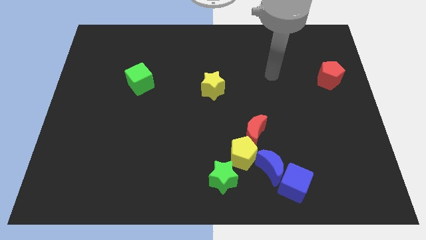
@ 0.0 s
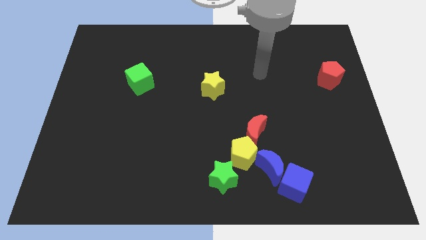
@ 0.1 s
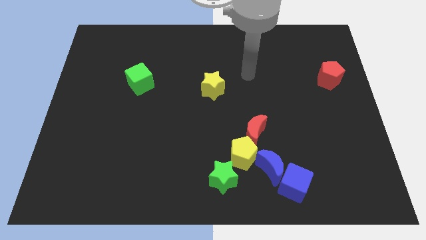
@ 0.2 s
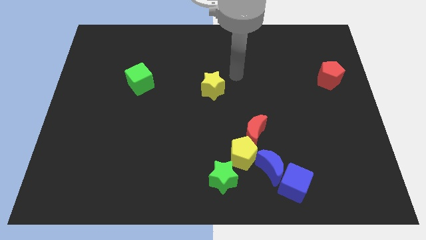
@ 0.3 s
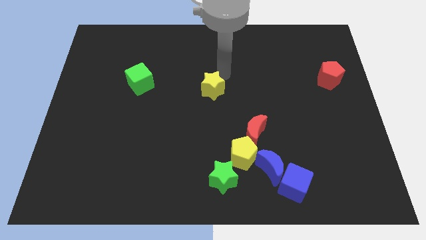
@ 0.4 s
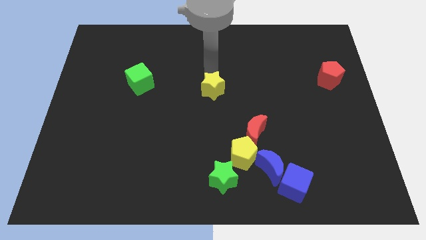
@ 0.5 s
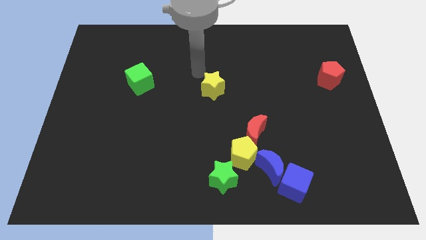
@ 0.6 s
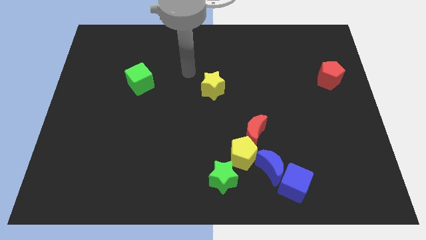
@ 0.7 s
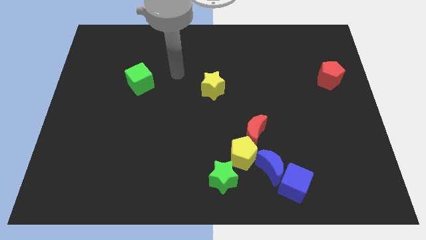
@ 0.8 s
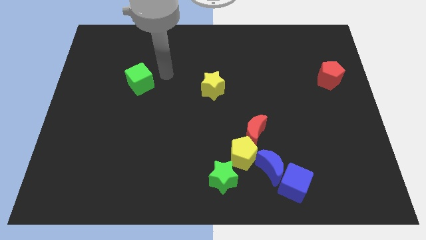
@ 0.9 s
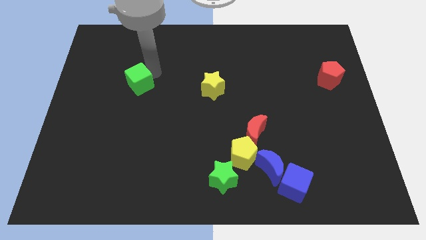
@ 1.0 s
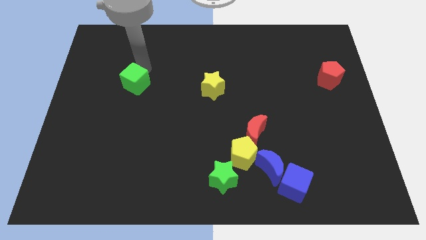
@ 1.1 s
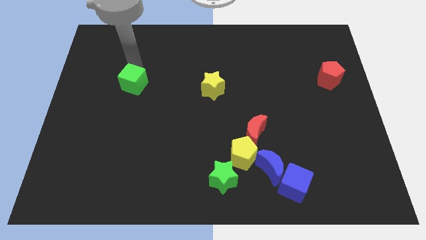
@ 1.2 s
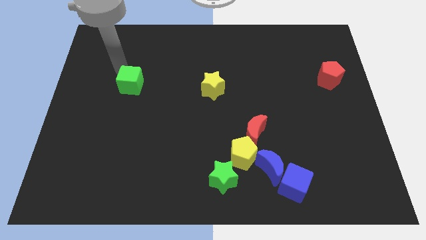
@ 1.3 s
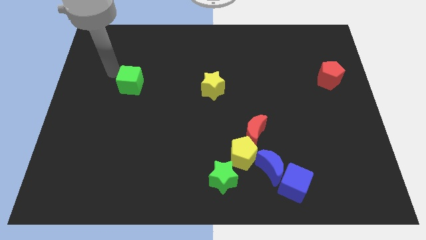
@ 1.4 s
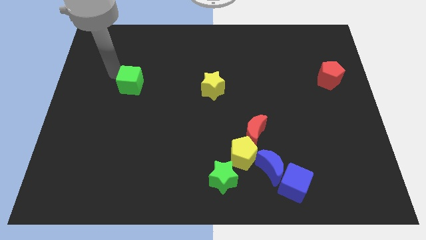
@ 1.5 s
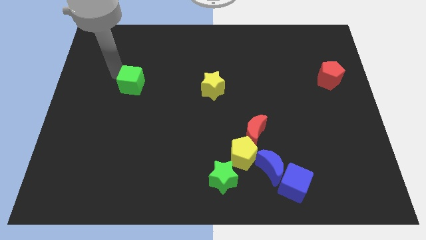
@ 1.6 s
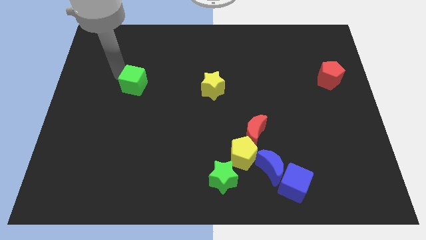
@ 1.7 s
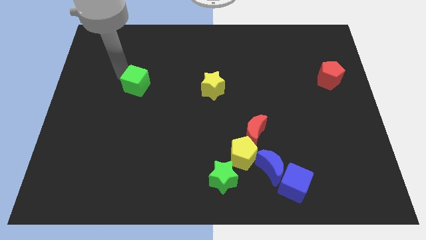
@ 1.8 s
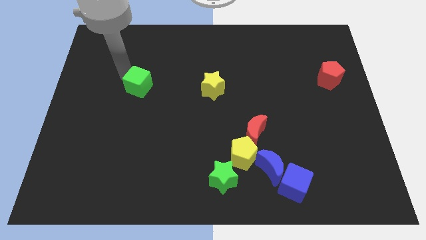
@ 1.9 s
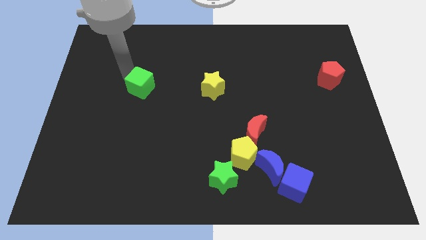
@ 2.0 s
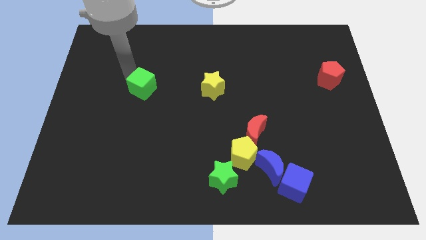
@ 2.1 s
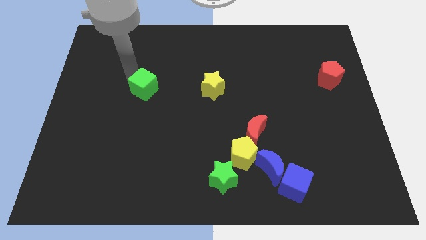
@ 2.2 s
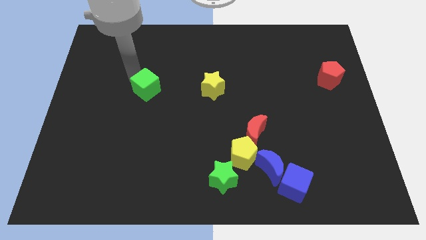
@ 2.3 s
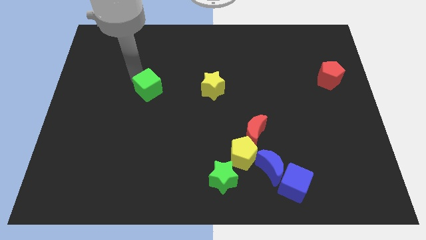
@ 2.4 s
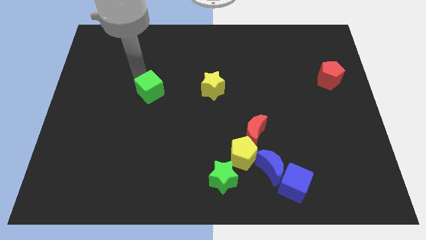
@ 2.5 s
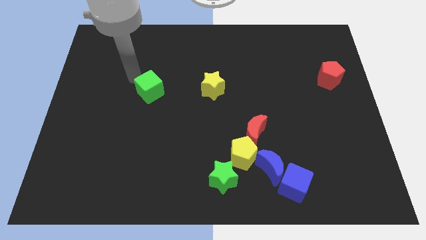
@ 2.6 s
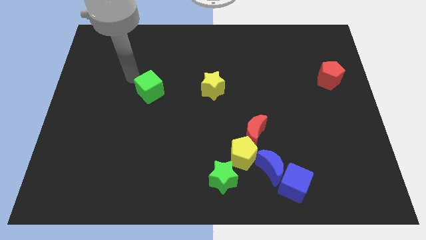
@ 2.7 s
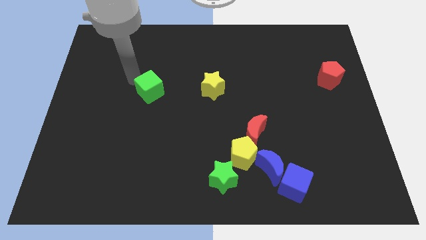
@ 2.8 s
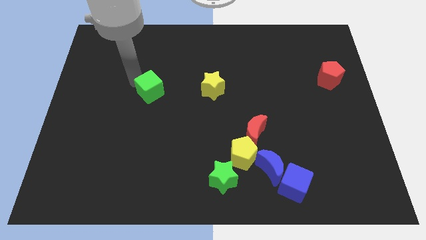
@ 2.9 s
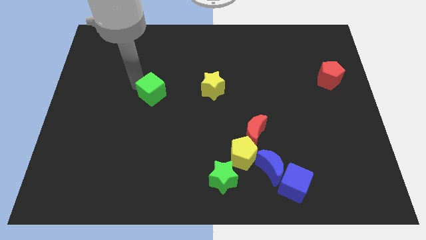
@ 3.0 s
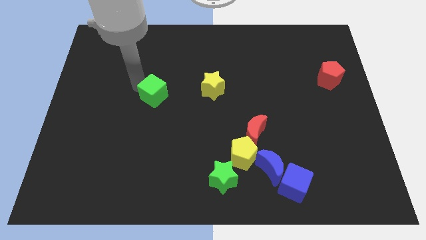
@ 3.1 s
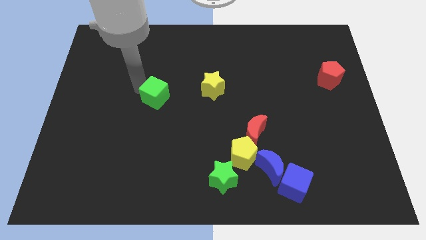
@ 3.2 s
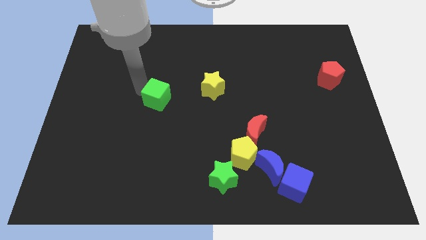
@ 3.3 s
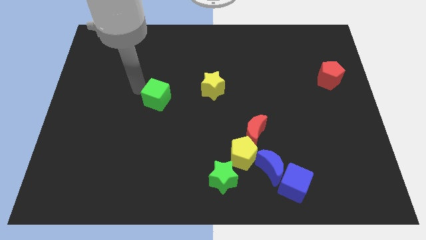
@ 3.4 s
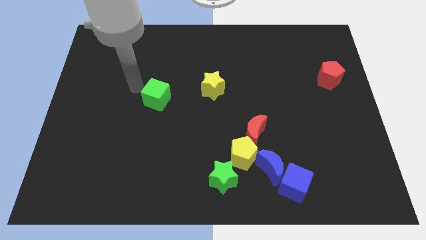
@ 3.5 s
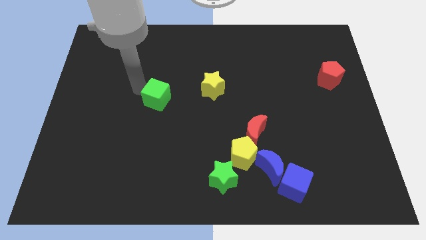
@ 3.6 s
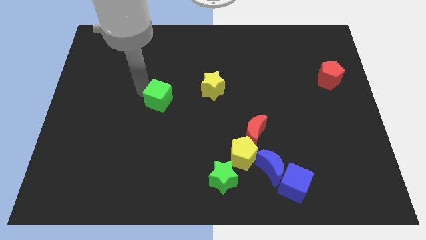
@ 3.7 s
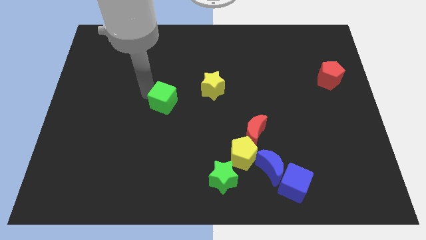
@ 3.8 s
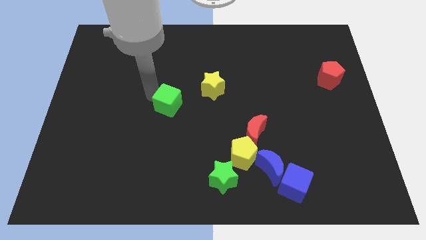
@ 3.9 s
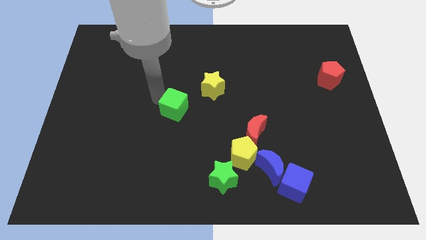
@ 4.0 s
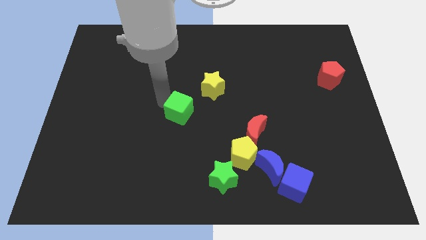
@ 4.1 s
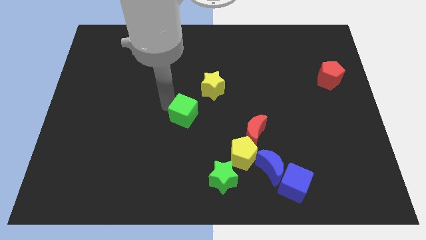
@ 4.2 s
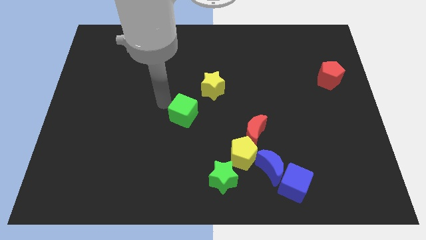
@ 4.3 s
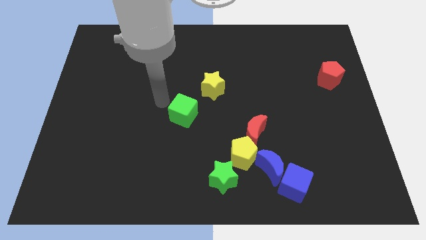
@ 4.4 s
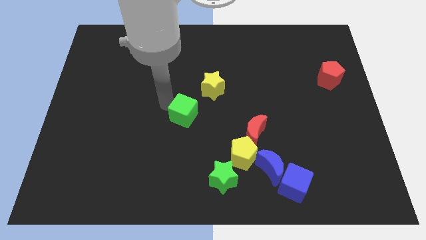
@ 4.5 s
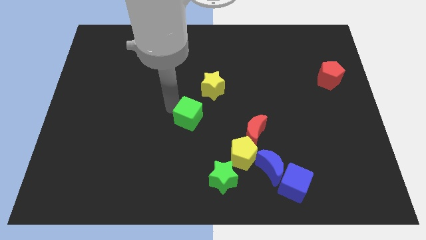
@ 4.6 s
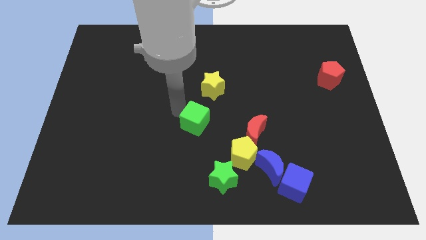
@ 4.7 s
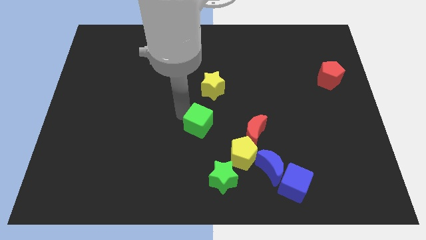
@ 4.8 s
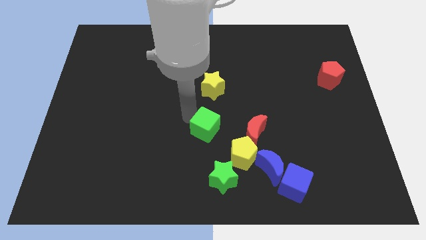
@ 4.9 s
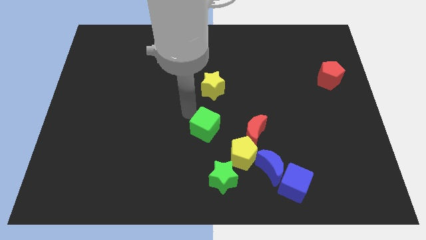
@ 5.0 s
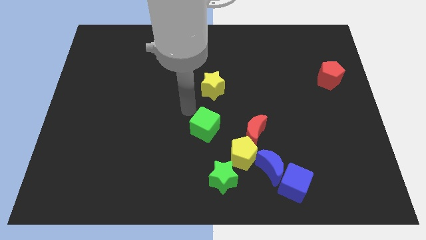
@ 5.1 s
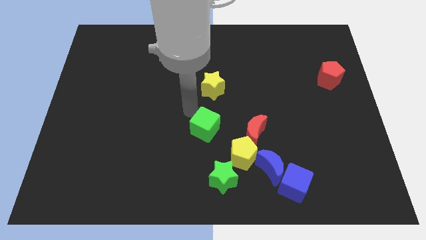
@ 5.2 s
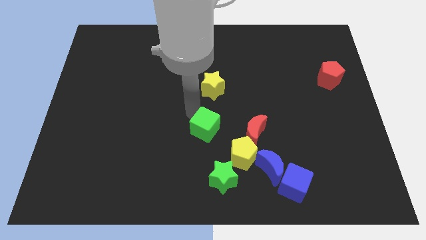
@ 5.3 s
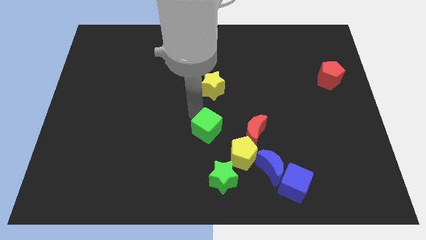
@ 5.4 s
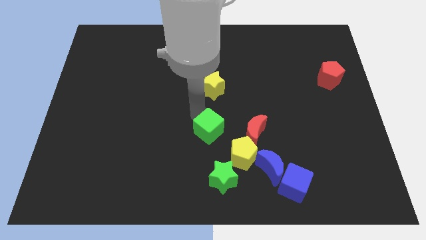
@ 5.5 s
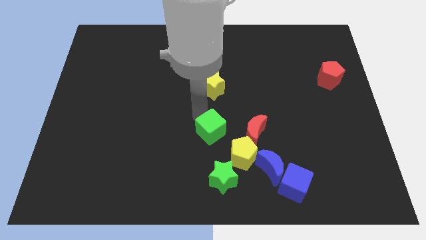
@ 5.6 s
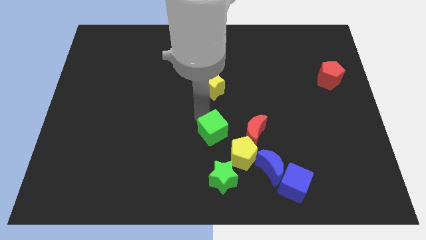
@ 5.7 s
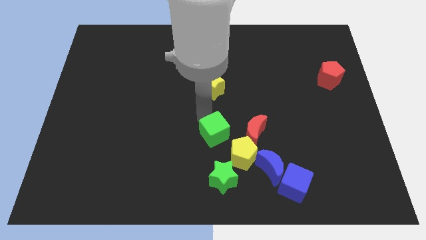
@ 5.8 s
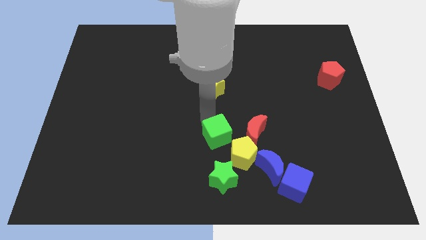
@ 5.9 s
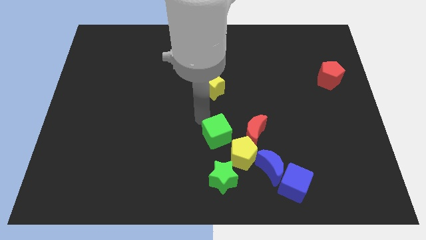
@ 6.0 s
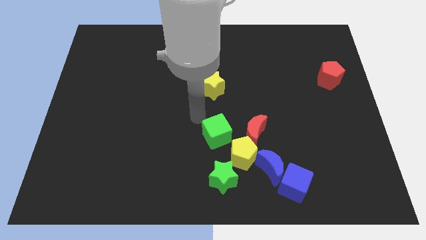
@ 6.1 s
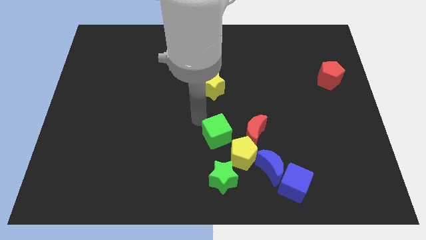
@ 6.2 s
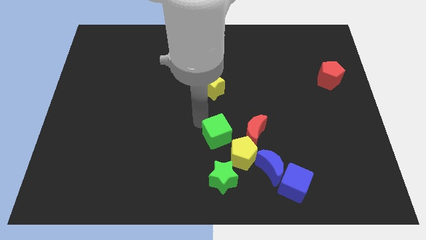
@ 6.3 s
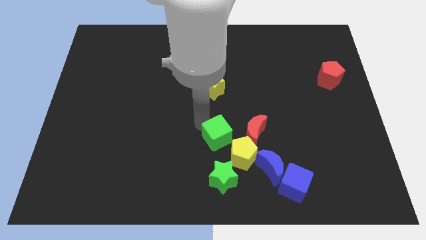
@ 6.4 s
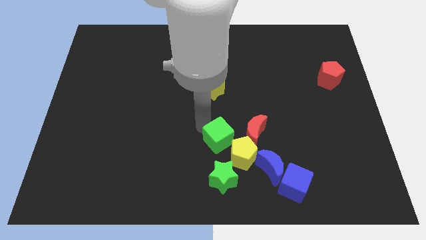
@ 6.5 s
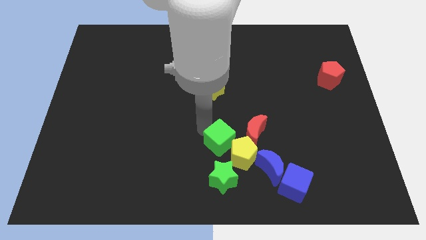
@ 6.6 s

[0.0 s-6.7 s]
put the green cube towards the yellow pentagon
